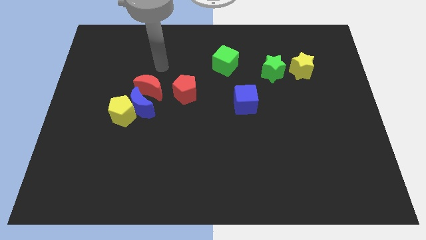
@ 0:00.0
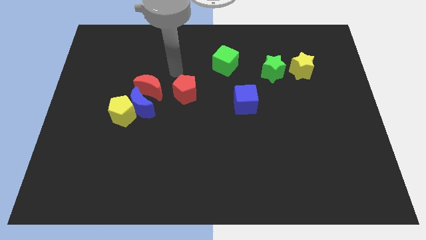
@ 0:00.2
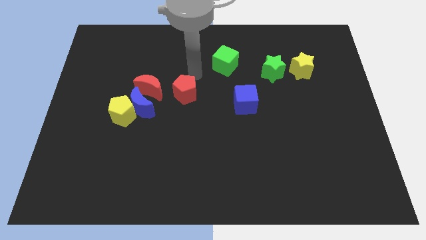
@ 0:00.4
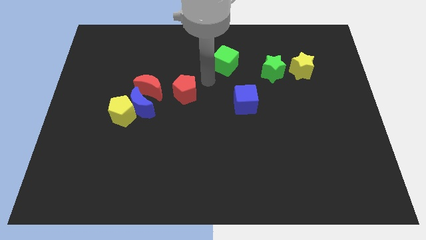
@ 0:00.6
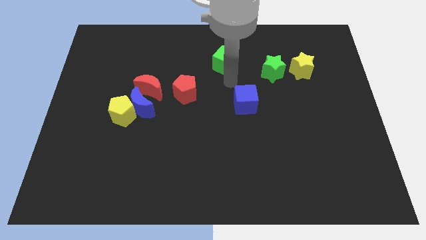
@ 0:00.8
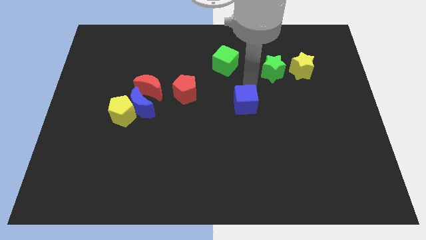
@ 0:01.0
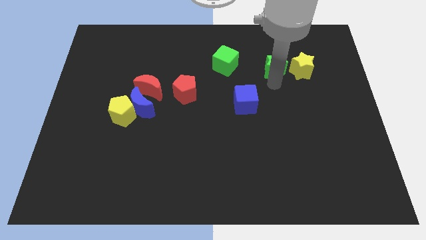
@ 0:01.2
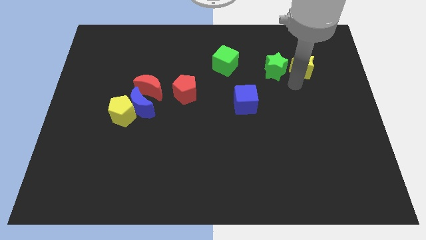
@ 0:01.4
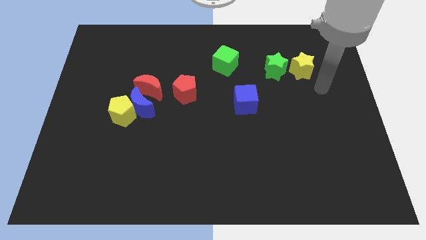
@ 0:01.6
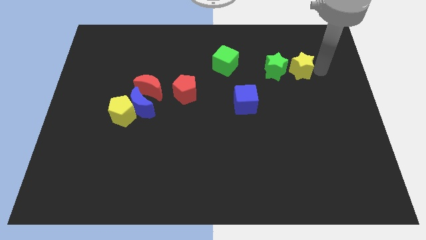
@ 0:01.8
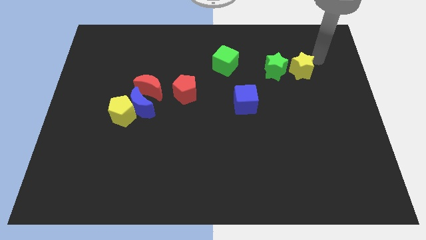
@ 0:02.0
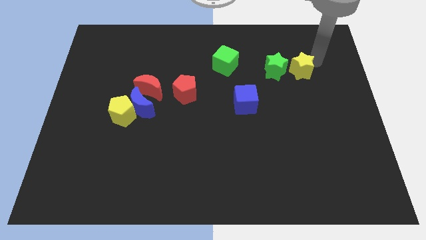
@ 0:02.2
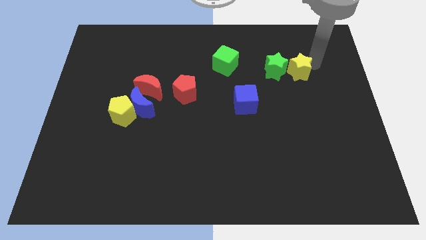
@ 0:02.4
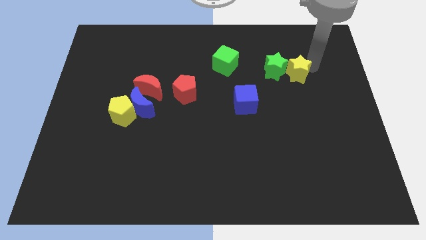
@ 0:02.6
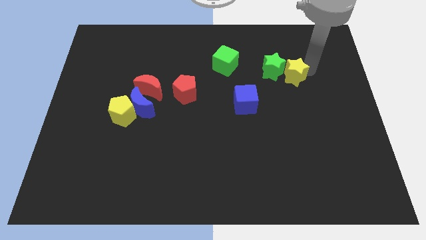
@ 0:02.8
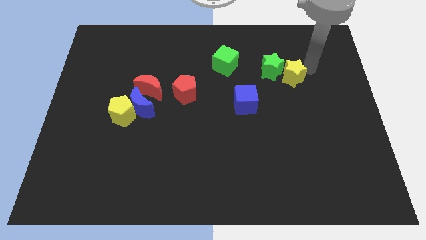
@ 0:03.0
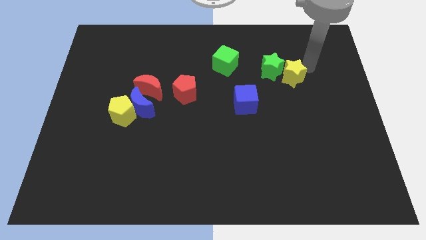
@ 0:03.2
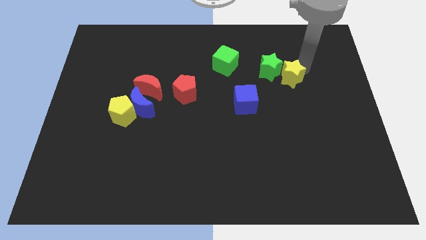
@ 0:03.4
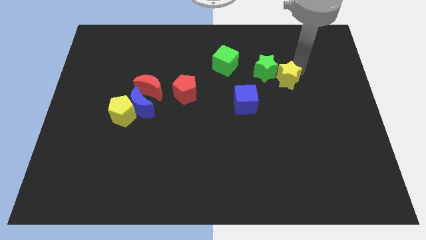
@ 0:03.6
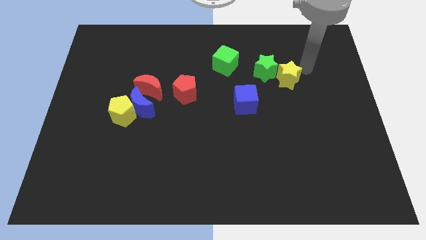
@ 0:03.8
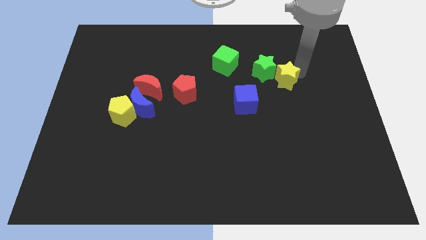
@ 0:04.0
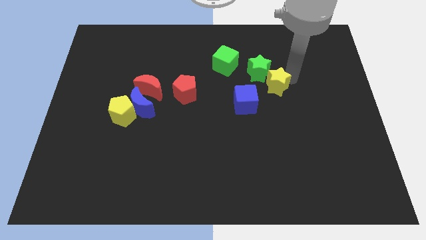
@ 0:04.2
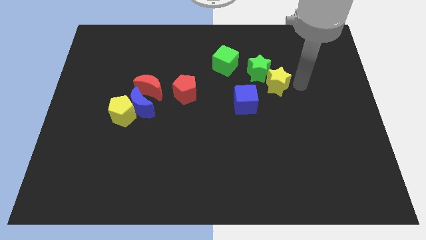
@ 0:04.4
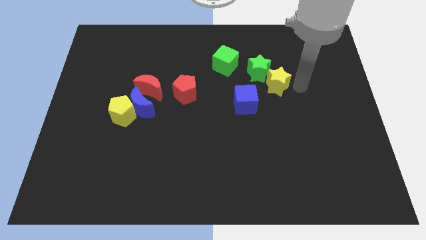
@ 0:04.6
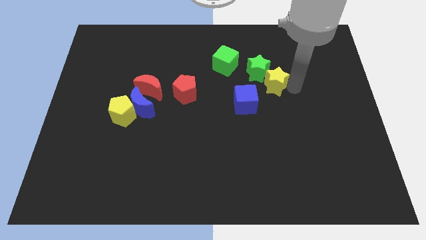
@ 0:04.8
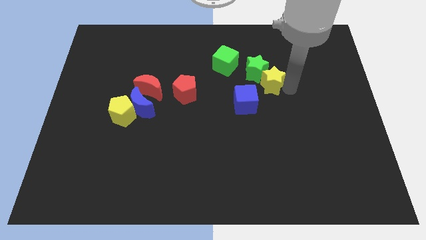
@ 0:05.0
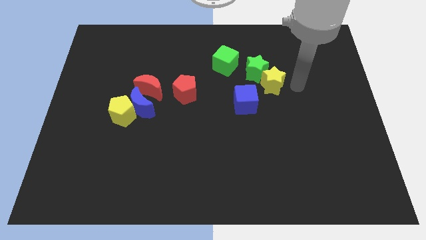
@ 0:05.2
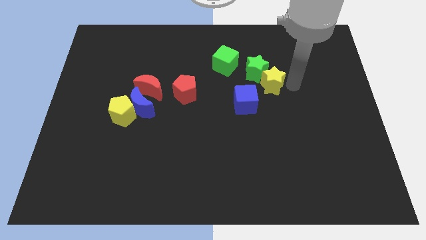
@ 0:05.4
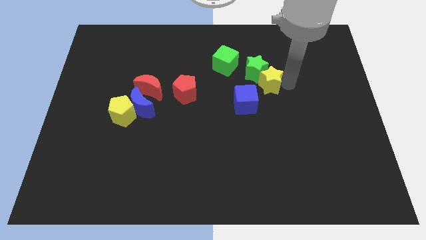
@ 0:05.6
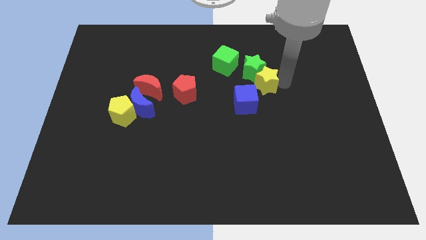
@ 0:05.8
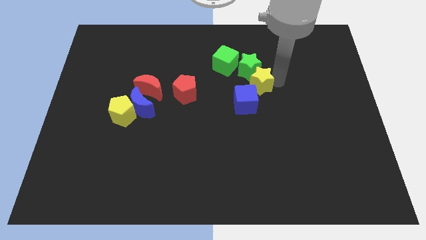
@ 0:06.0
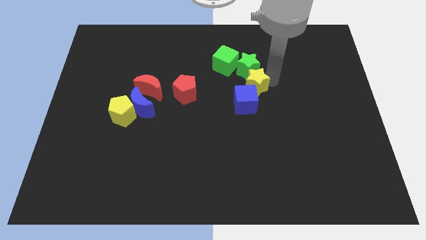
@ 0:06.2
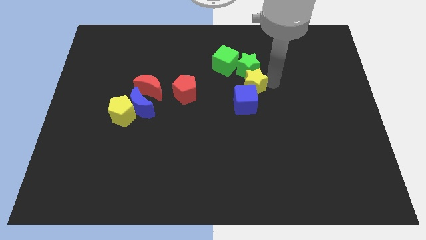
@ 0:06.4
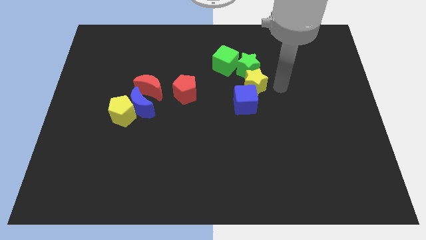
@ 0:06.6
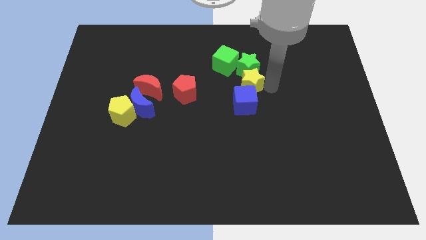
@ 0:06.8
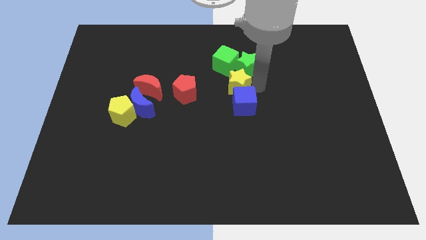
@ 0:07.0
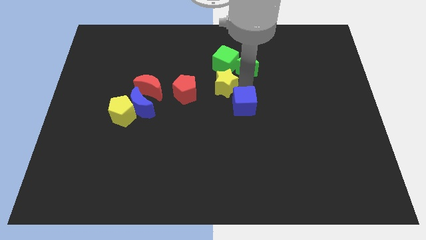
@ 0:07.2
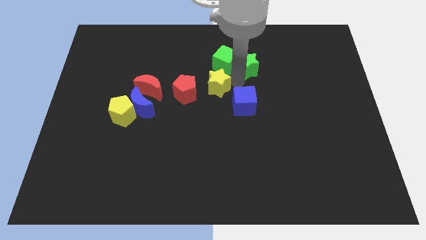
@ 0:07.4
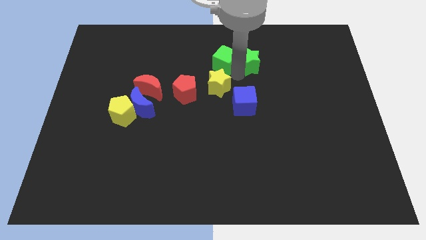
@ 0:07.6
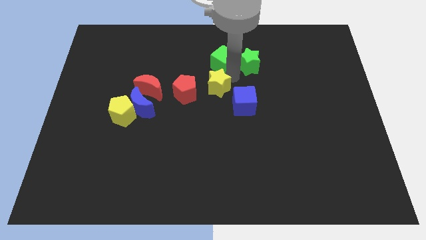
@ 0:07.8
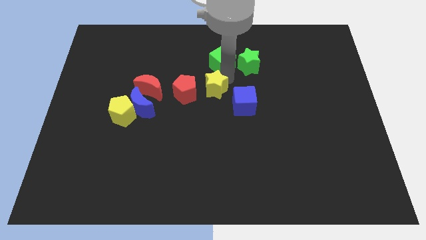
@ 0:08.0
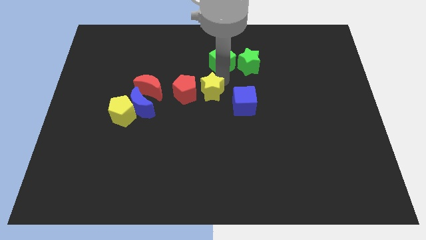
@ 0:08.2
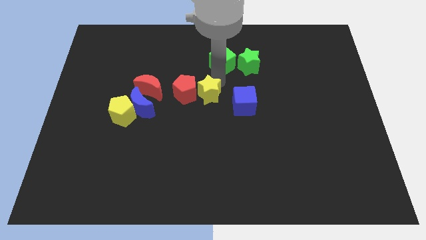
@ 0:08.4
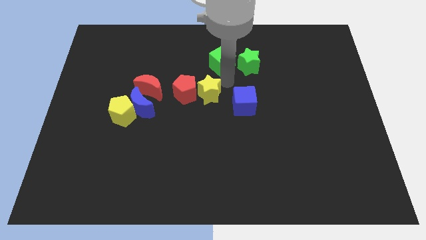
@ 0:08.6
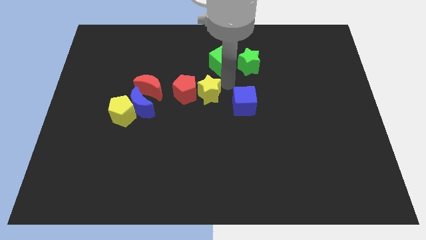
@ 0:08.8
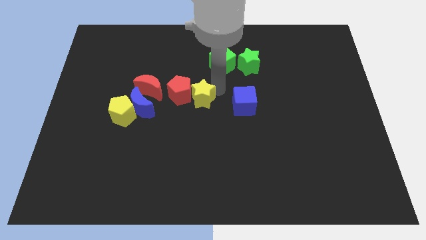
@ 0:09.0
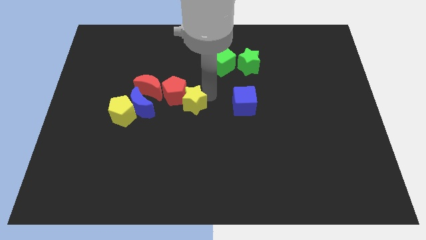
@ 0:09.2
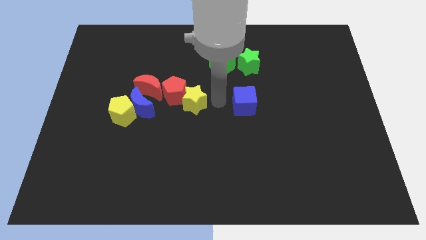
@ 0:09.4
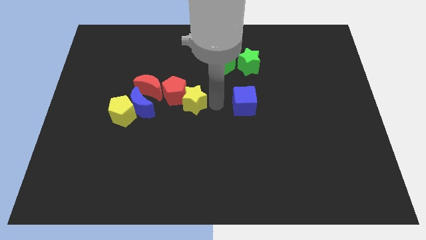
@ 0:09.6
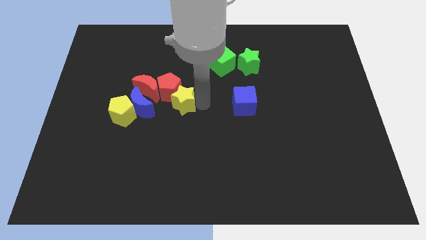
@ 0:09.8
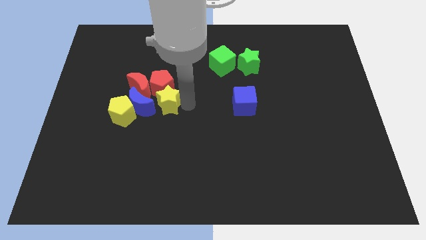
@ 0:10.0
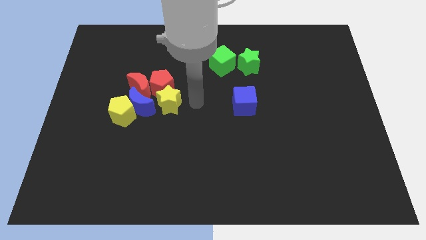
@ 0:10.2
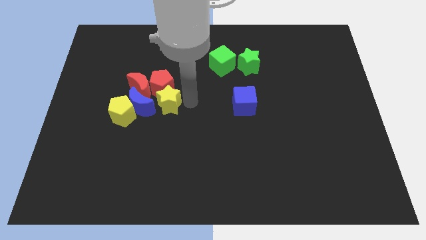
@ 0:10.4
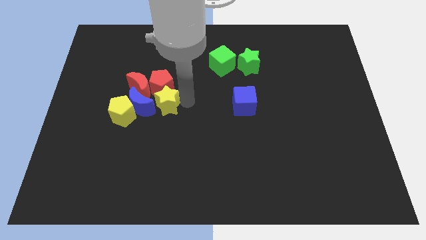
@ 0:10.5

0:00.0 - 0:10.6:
slide the yellow star close to the blue moon

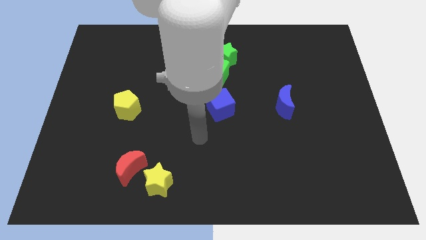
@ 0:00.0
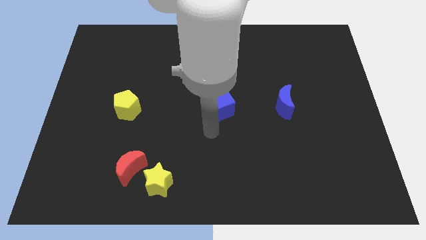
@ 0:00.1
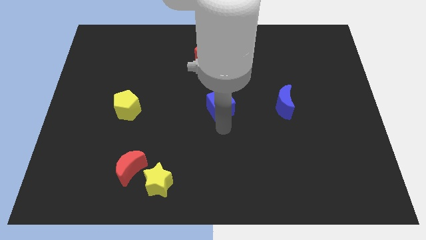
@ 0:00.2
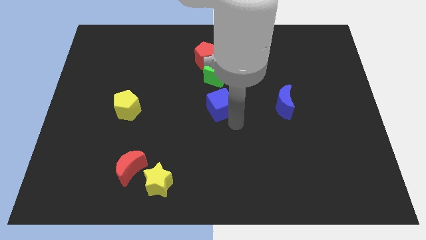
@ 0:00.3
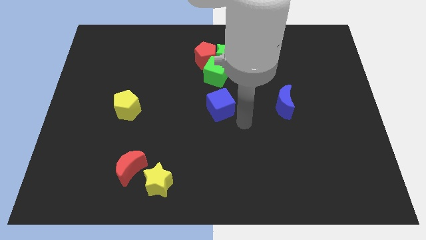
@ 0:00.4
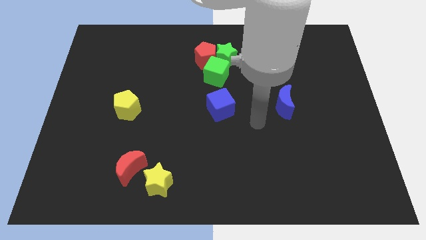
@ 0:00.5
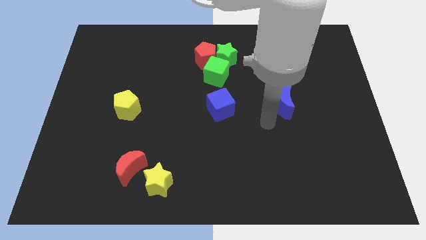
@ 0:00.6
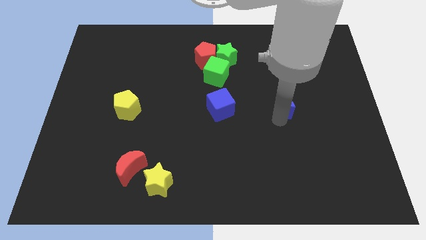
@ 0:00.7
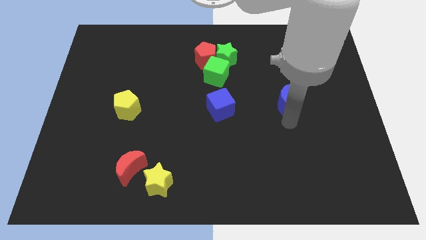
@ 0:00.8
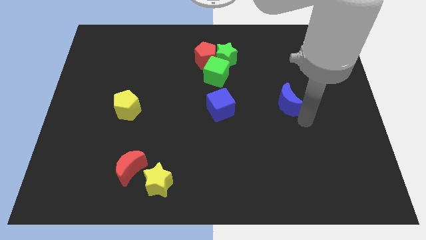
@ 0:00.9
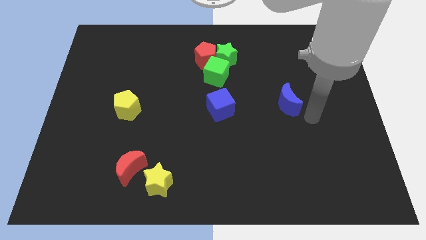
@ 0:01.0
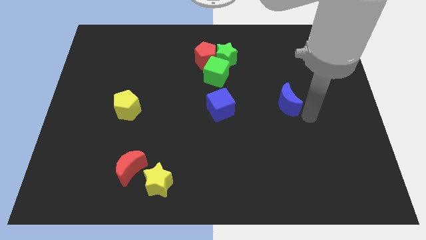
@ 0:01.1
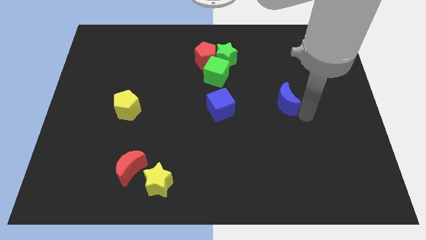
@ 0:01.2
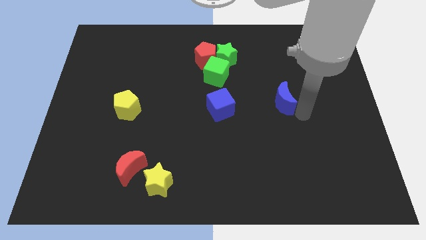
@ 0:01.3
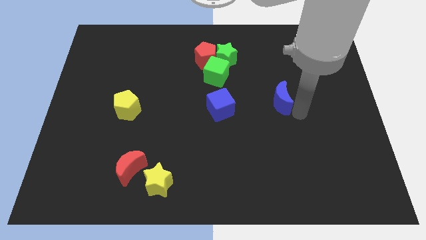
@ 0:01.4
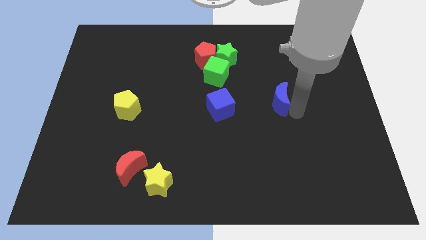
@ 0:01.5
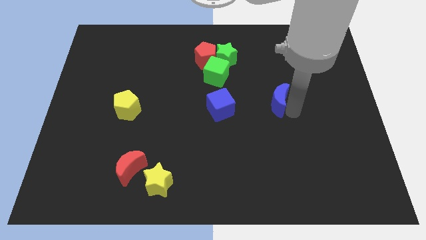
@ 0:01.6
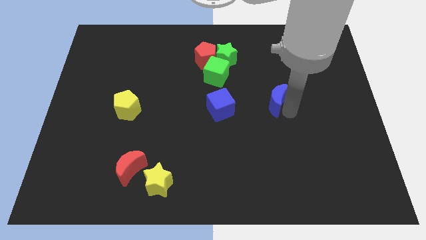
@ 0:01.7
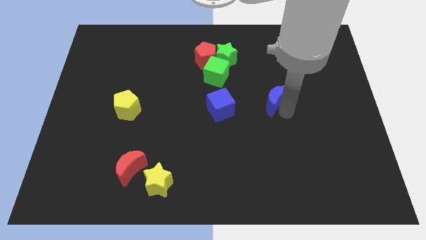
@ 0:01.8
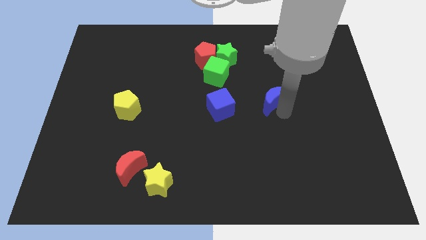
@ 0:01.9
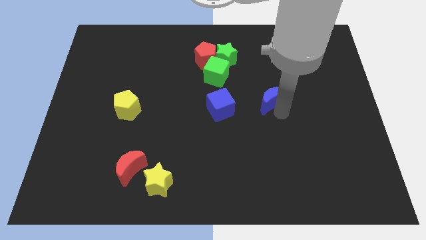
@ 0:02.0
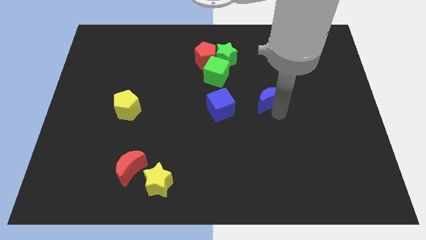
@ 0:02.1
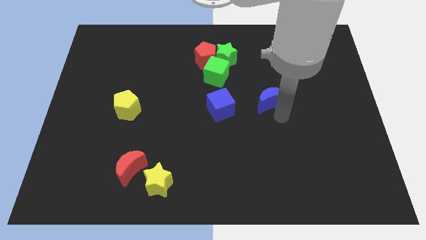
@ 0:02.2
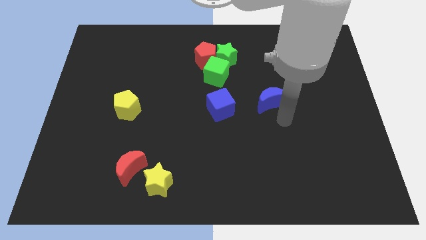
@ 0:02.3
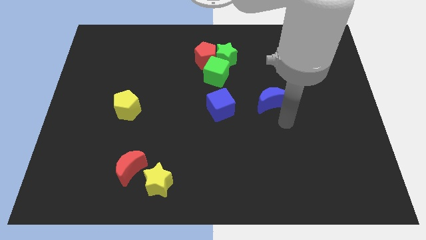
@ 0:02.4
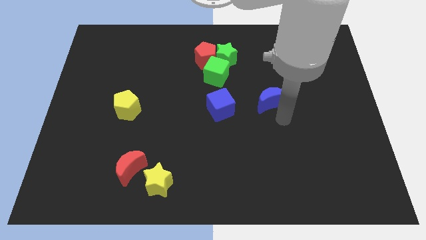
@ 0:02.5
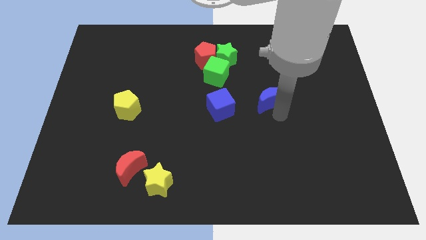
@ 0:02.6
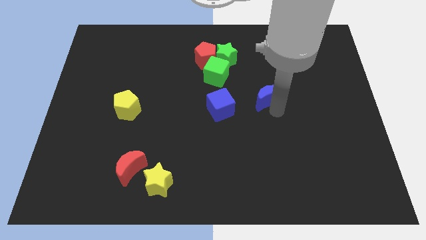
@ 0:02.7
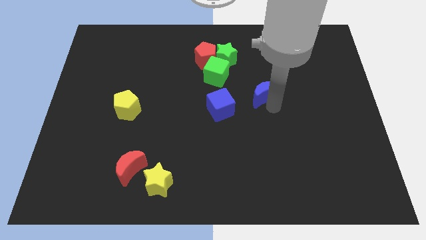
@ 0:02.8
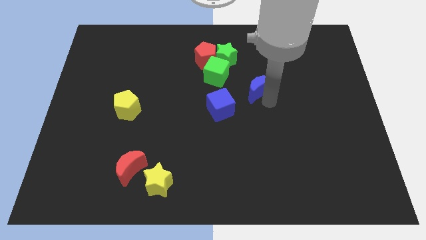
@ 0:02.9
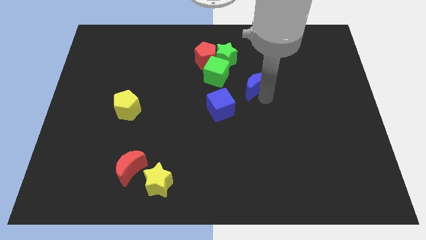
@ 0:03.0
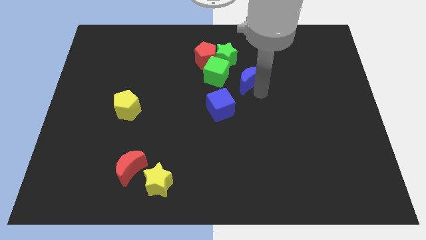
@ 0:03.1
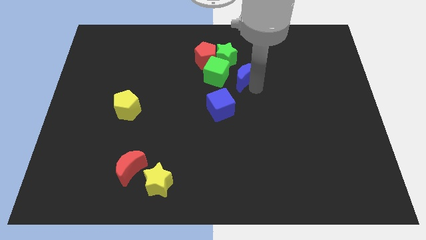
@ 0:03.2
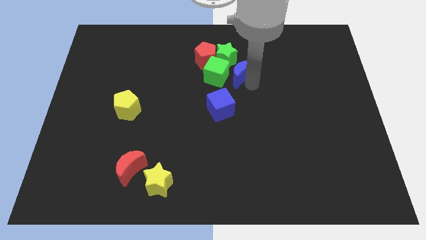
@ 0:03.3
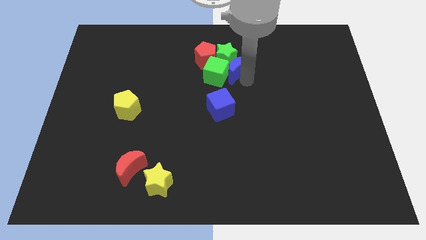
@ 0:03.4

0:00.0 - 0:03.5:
move the blue moon towards the green star
